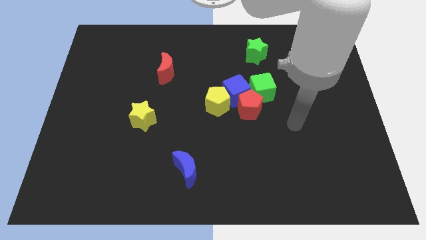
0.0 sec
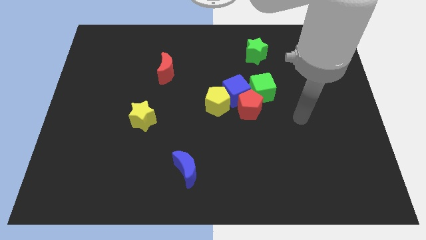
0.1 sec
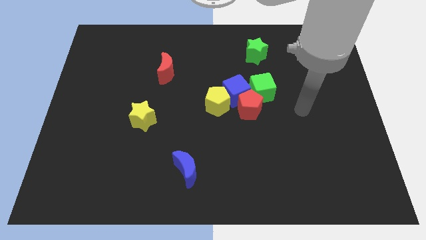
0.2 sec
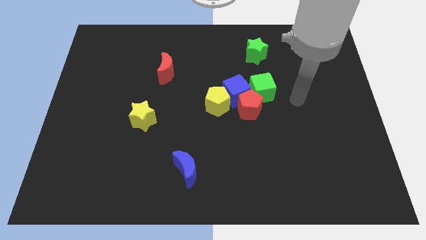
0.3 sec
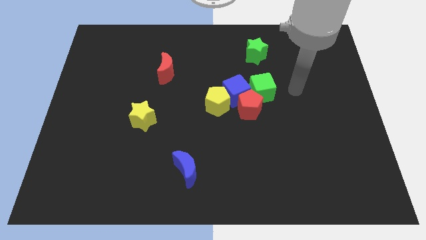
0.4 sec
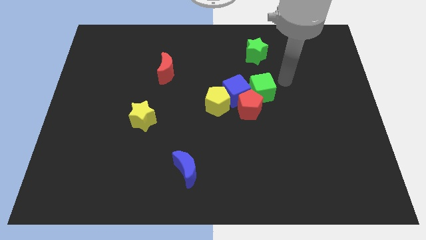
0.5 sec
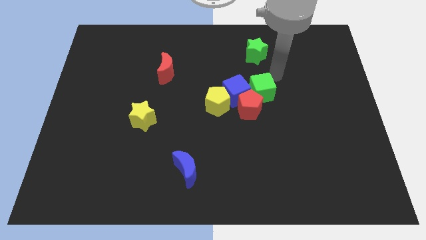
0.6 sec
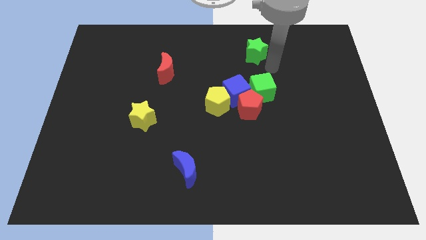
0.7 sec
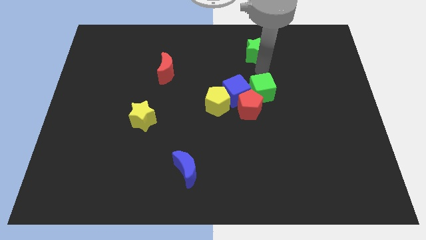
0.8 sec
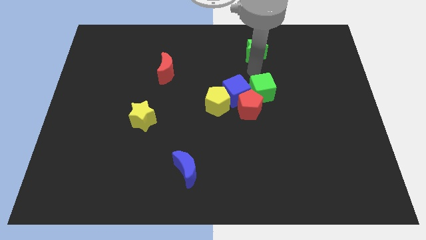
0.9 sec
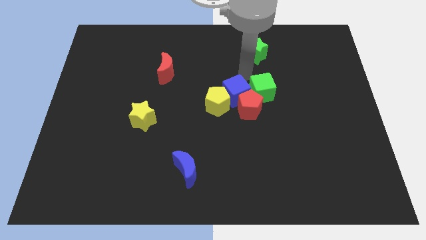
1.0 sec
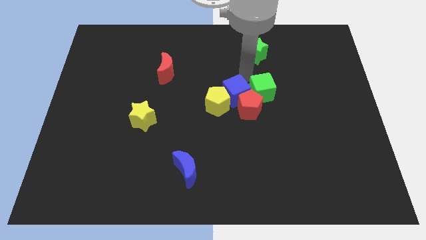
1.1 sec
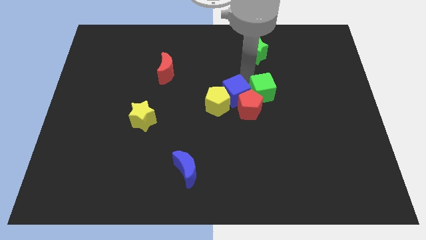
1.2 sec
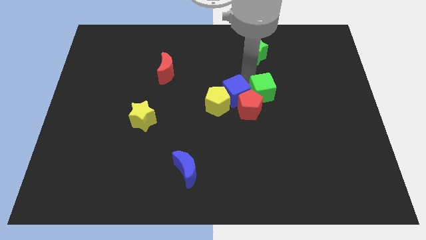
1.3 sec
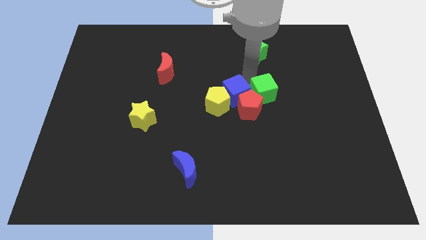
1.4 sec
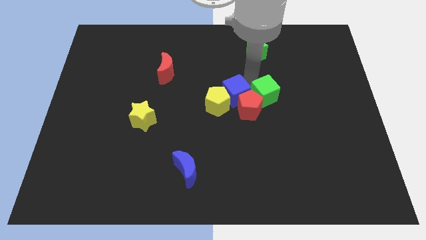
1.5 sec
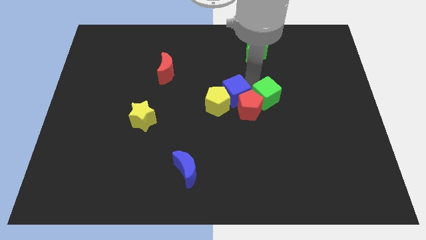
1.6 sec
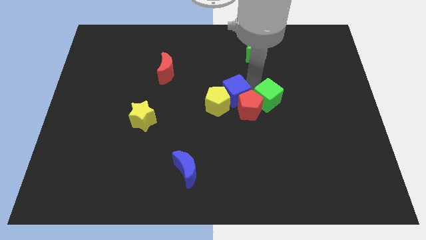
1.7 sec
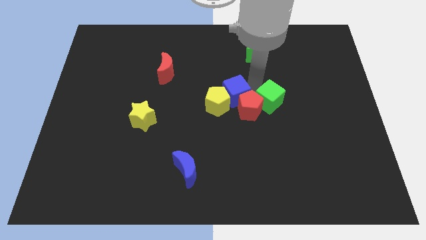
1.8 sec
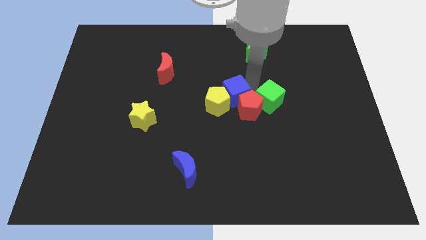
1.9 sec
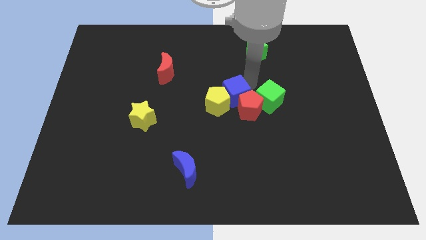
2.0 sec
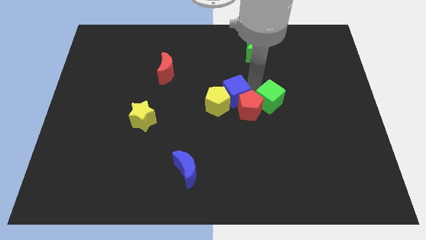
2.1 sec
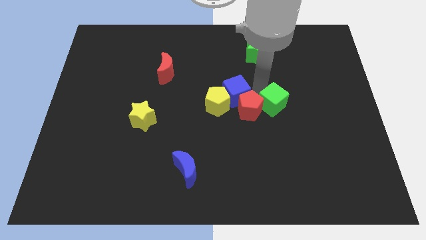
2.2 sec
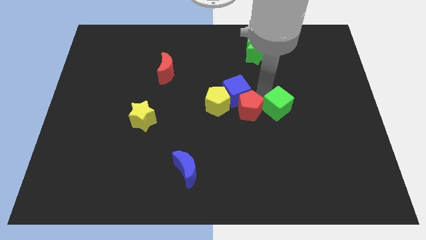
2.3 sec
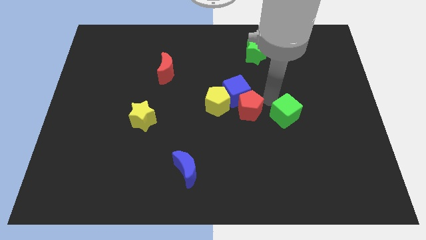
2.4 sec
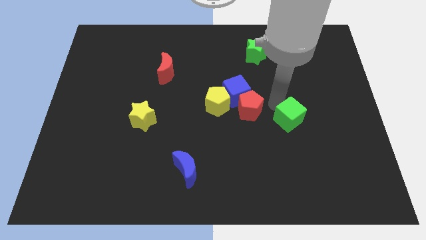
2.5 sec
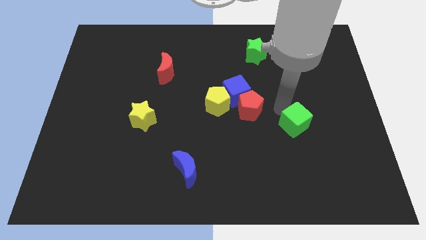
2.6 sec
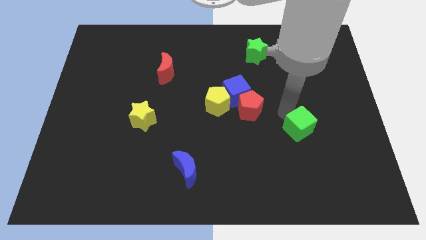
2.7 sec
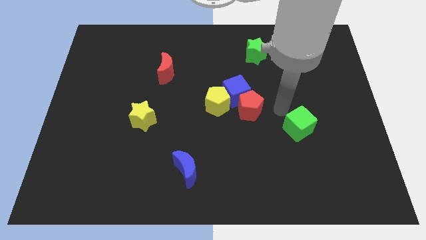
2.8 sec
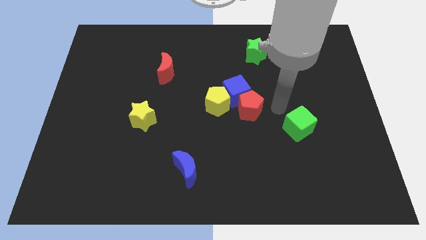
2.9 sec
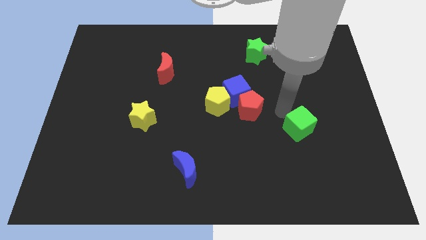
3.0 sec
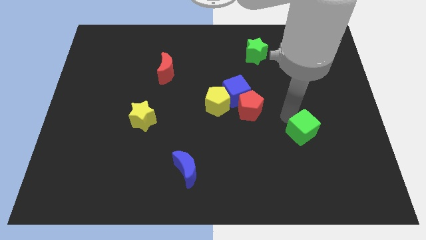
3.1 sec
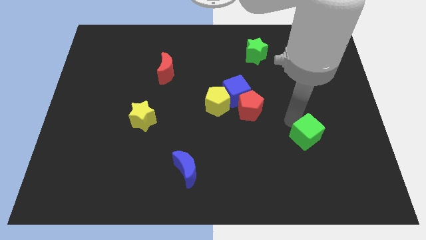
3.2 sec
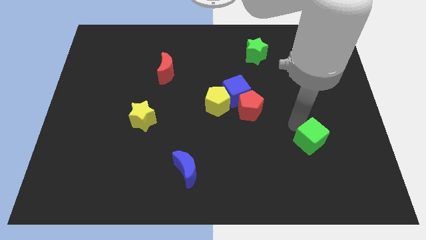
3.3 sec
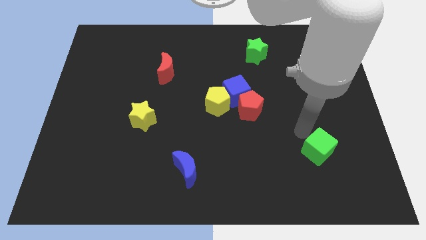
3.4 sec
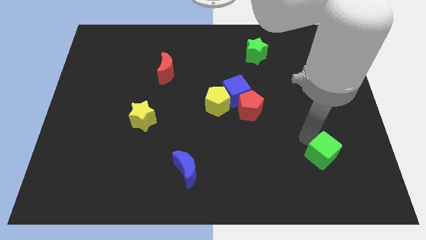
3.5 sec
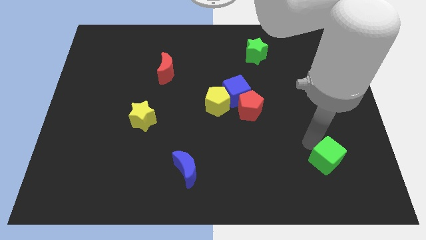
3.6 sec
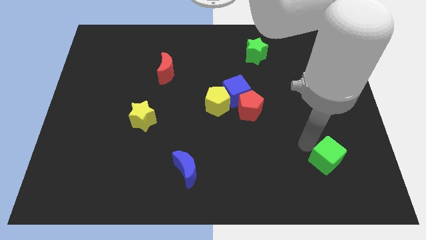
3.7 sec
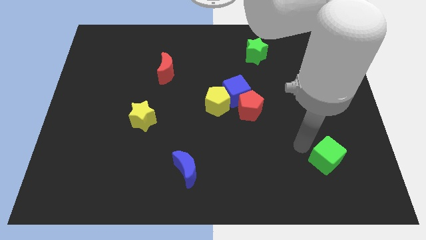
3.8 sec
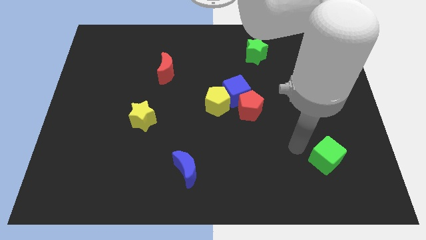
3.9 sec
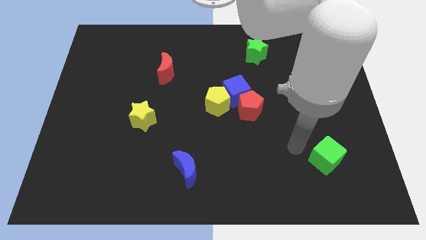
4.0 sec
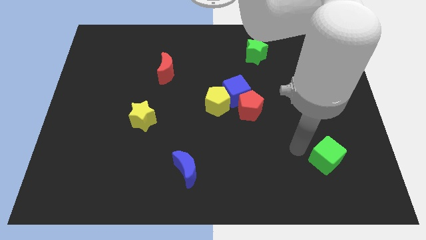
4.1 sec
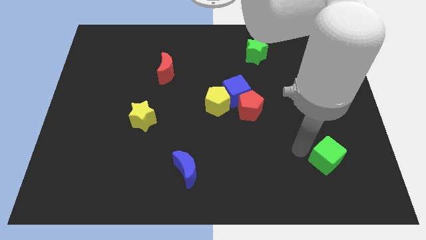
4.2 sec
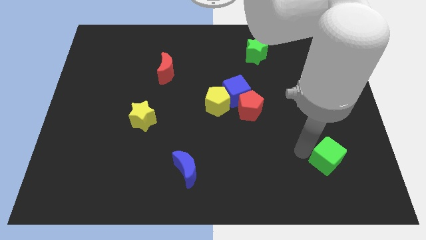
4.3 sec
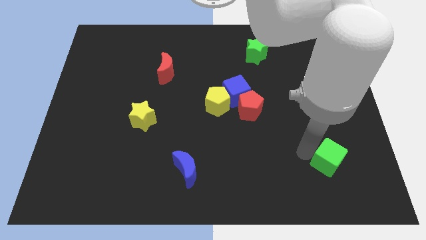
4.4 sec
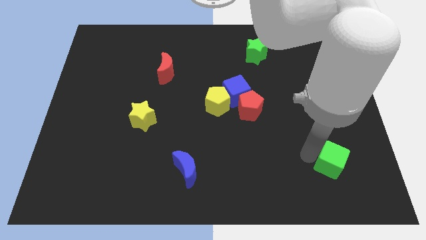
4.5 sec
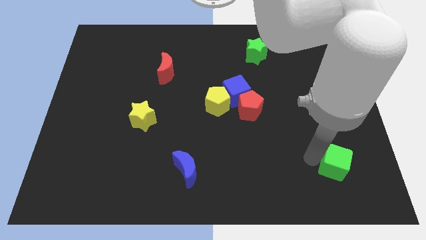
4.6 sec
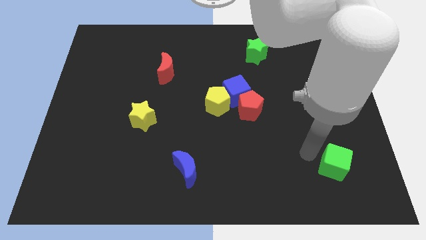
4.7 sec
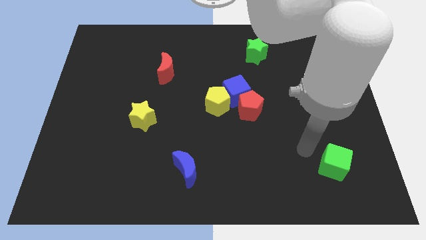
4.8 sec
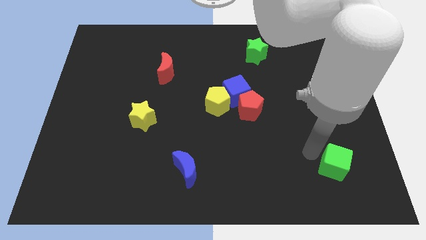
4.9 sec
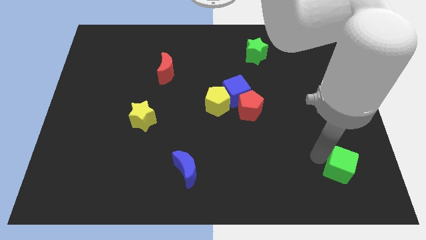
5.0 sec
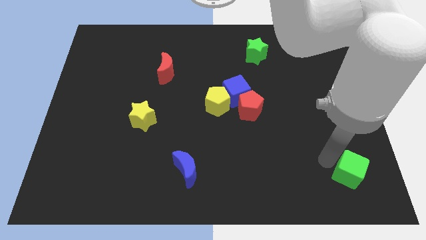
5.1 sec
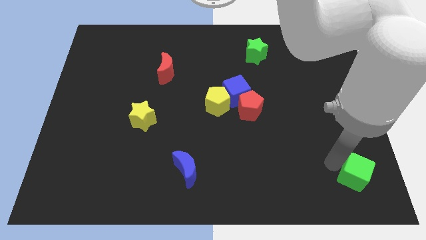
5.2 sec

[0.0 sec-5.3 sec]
move the green cube to the lower right corner

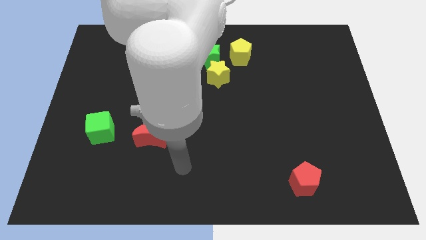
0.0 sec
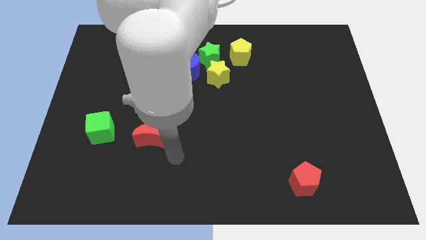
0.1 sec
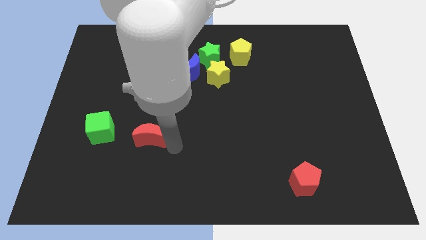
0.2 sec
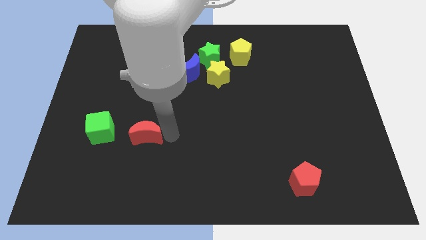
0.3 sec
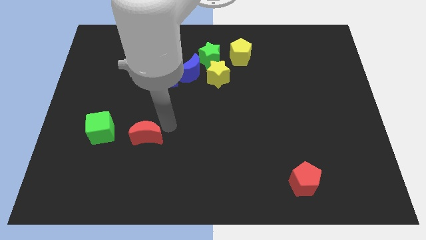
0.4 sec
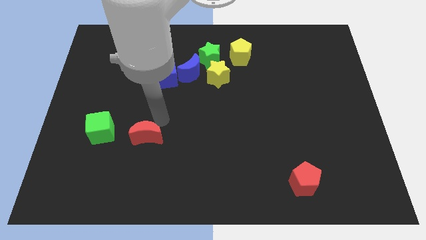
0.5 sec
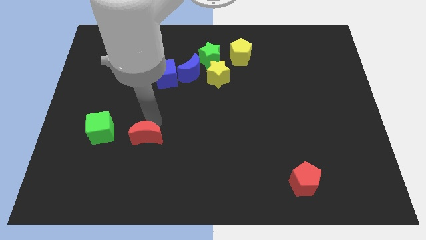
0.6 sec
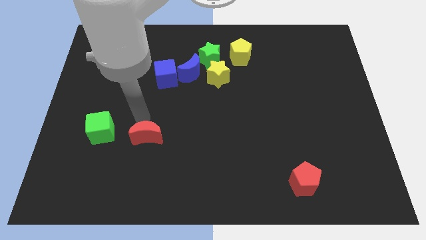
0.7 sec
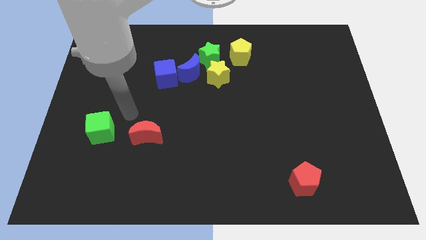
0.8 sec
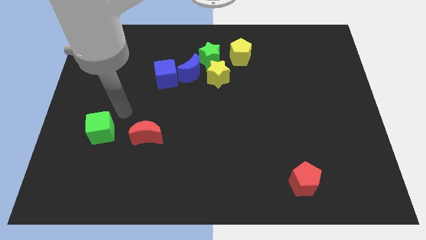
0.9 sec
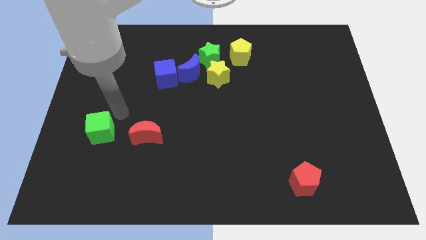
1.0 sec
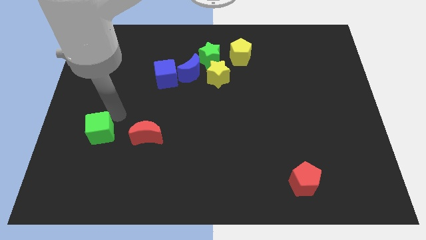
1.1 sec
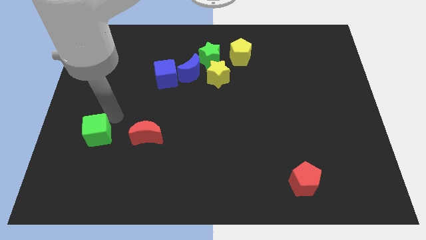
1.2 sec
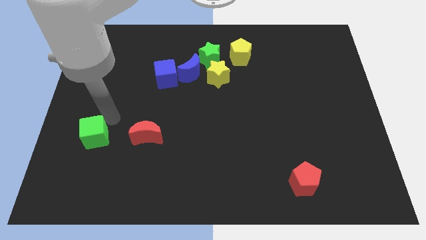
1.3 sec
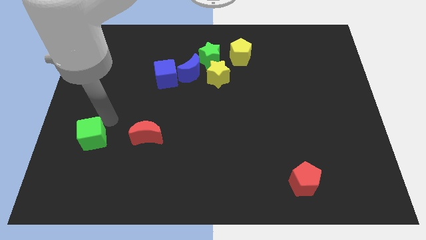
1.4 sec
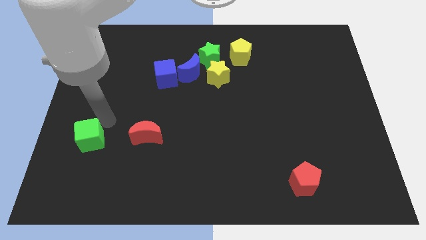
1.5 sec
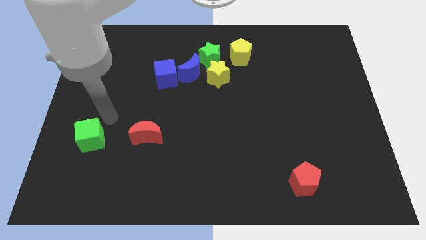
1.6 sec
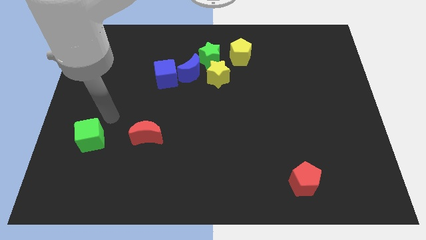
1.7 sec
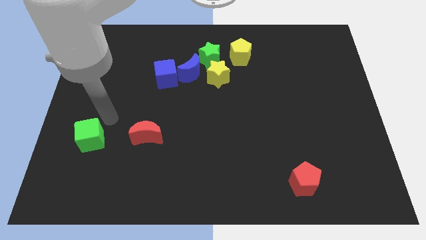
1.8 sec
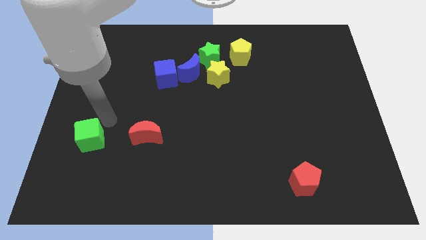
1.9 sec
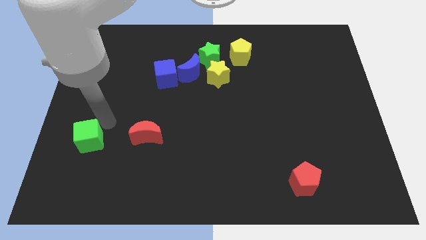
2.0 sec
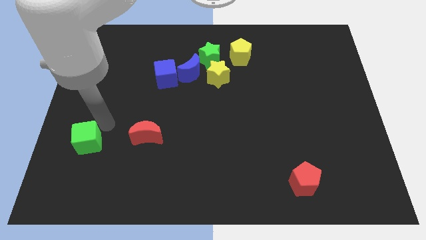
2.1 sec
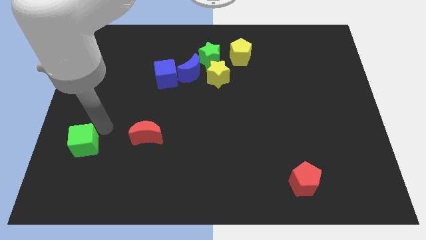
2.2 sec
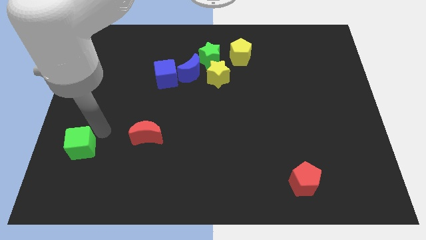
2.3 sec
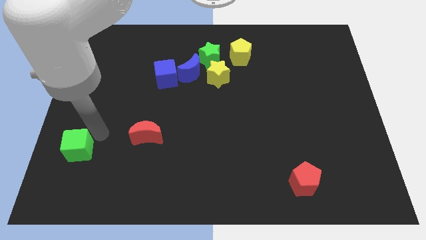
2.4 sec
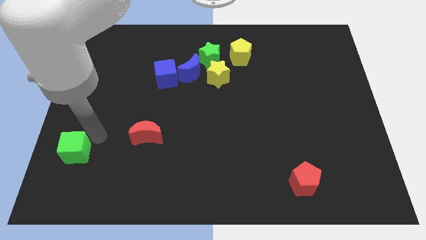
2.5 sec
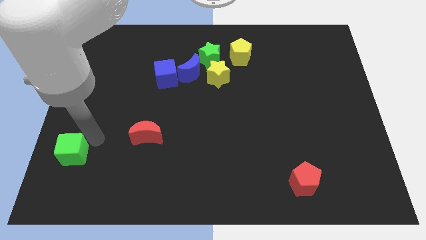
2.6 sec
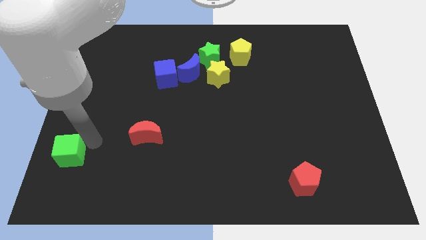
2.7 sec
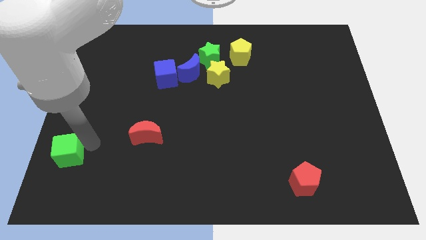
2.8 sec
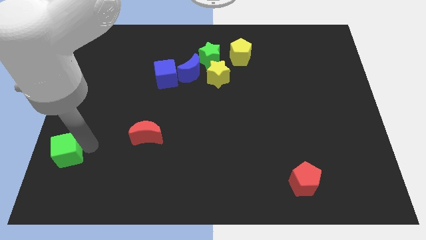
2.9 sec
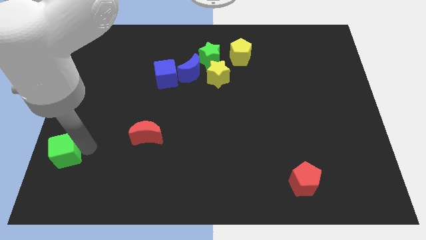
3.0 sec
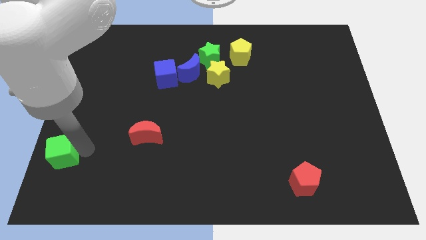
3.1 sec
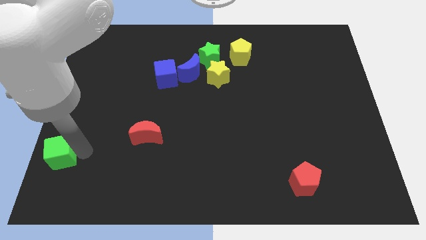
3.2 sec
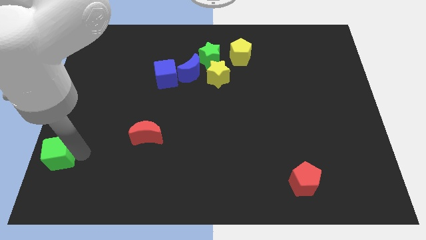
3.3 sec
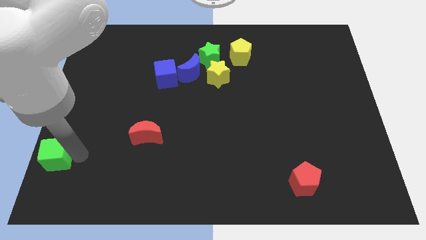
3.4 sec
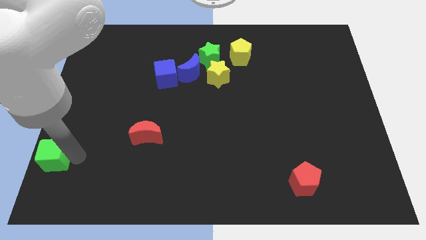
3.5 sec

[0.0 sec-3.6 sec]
move the green cube to the lower left corner
